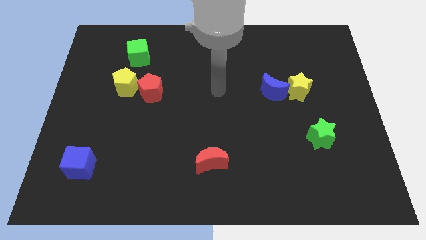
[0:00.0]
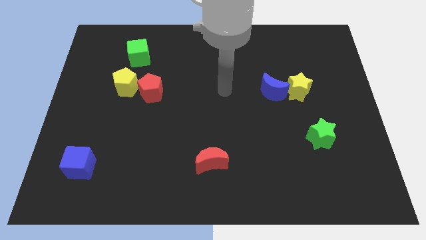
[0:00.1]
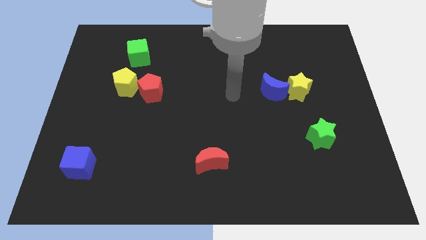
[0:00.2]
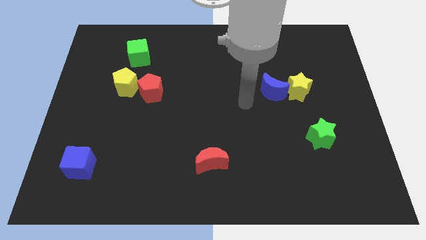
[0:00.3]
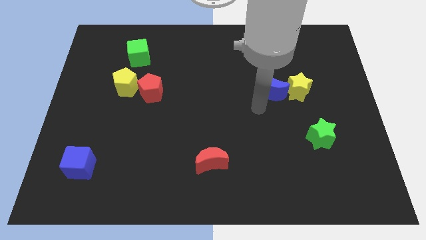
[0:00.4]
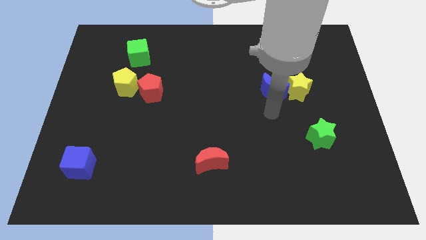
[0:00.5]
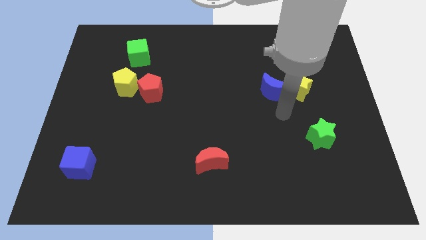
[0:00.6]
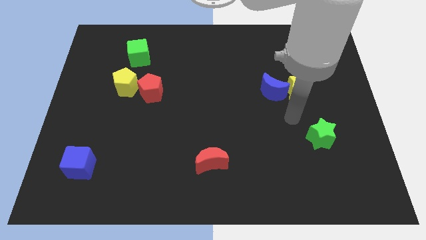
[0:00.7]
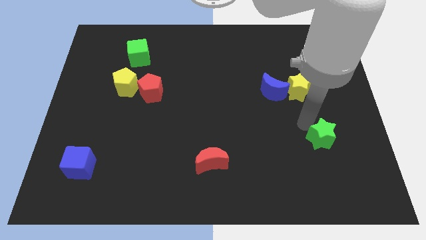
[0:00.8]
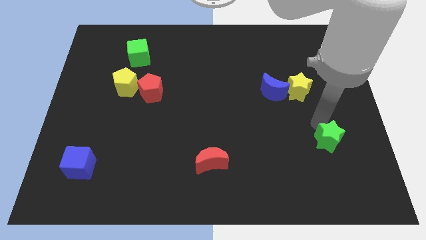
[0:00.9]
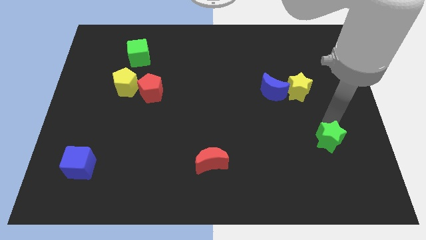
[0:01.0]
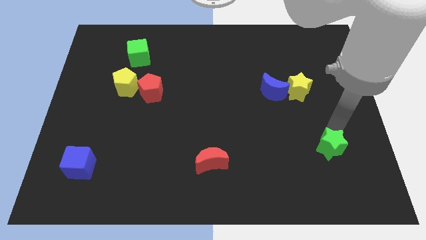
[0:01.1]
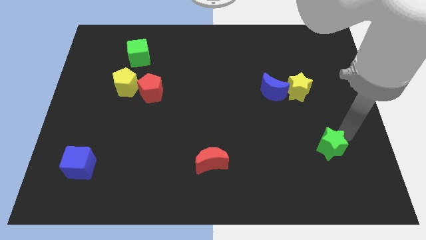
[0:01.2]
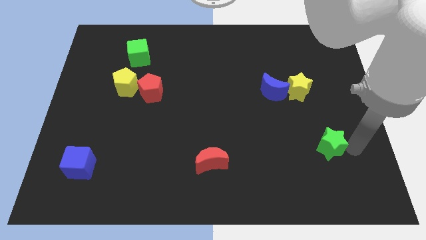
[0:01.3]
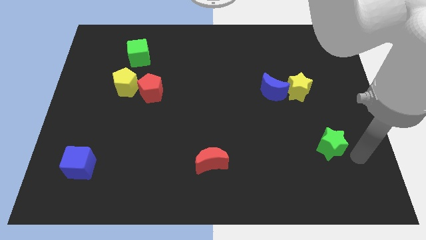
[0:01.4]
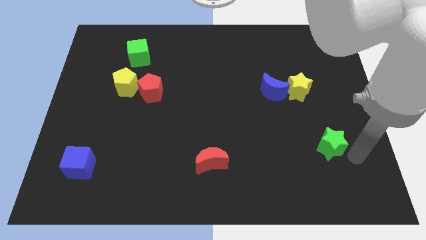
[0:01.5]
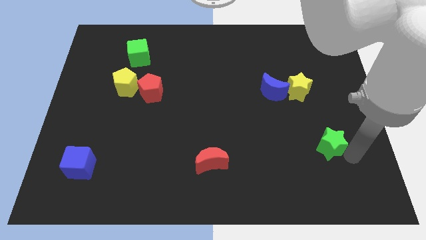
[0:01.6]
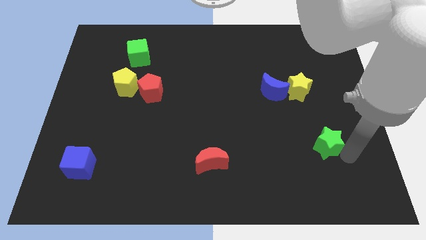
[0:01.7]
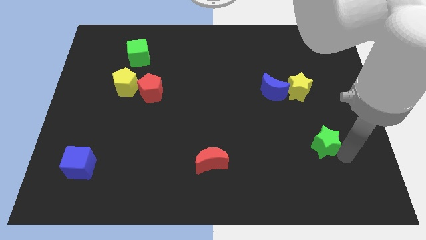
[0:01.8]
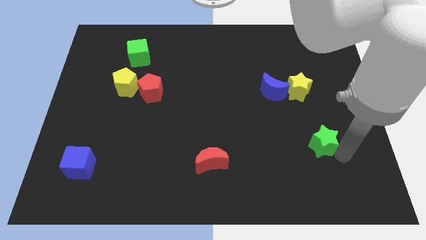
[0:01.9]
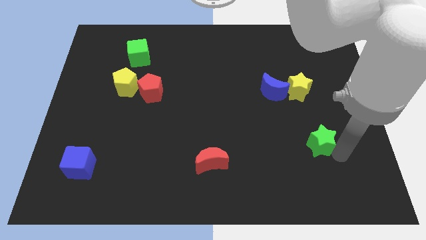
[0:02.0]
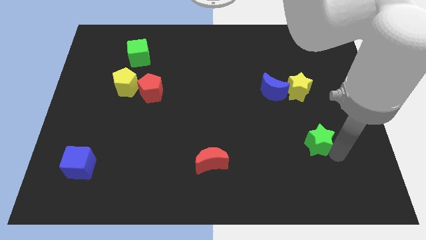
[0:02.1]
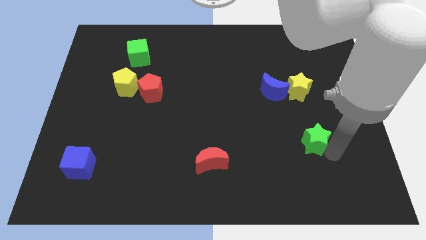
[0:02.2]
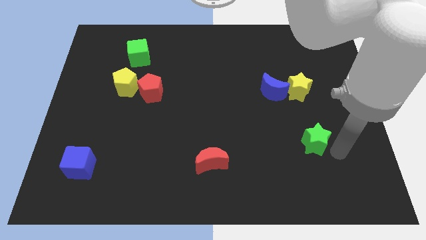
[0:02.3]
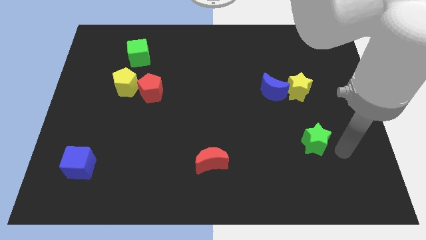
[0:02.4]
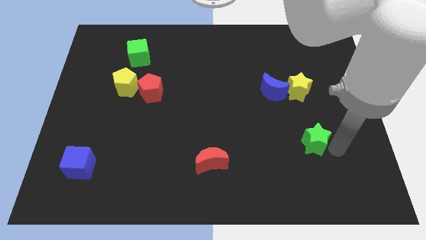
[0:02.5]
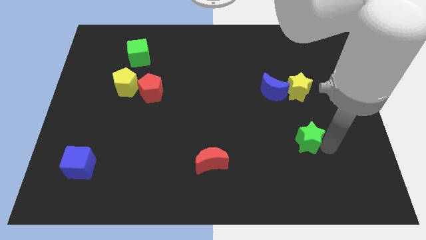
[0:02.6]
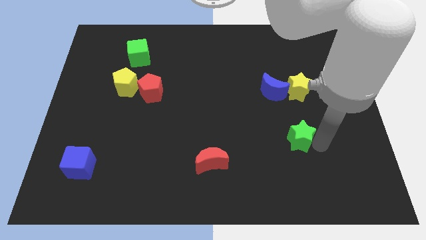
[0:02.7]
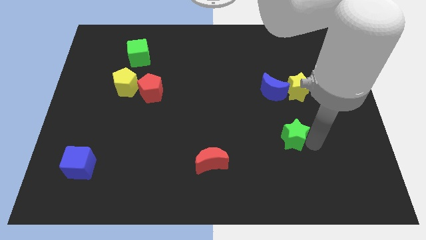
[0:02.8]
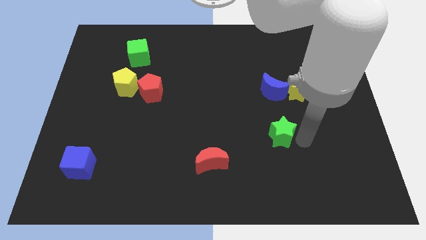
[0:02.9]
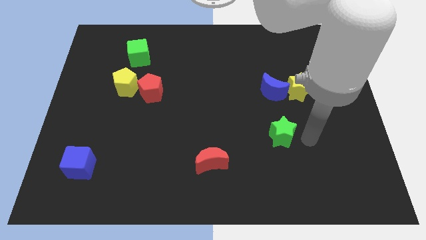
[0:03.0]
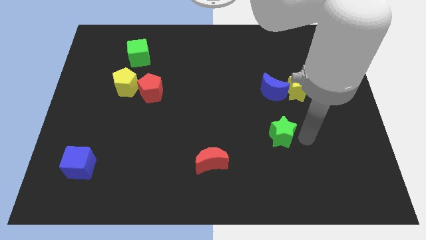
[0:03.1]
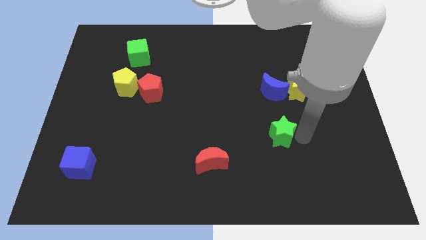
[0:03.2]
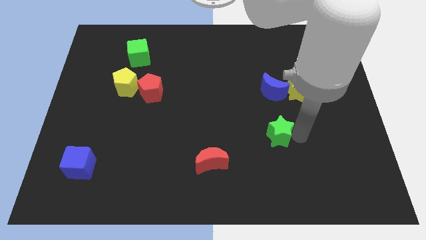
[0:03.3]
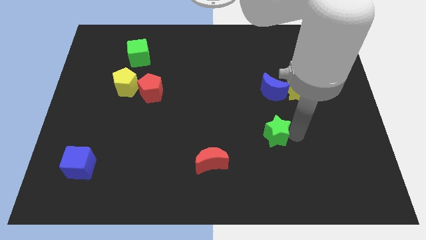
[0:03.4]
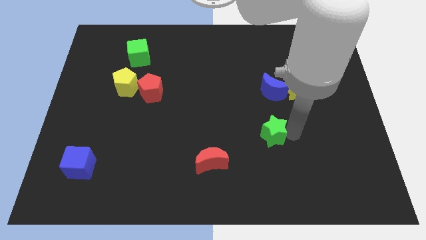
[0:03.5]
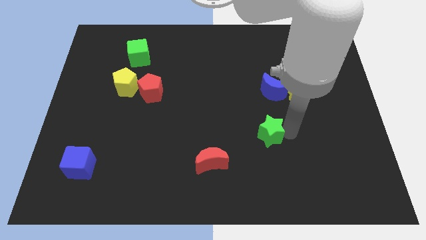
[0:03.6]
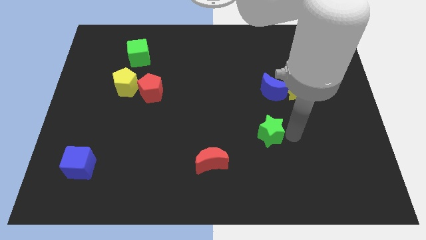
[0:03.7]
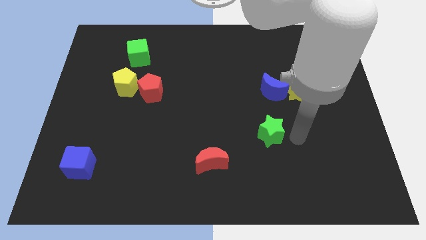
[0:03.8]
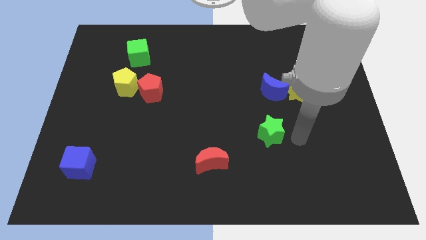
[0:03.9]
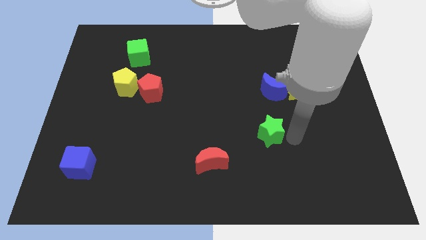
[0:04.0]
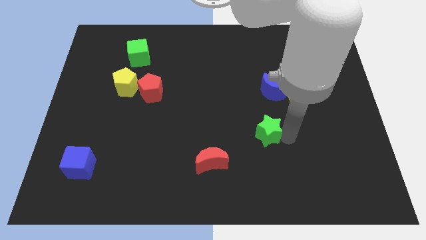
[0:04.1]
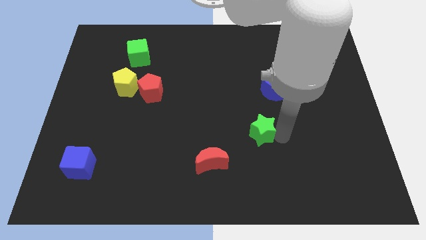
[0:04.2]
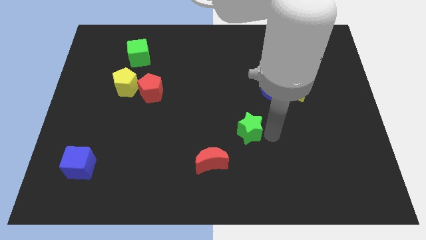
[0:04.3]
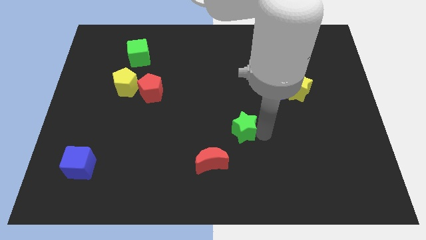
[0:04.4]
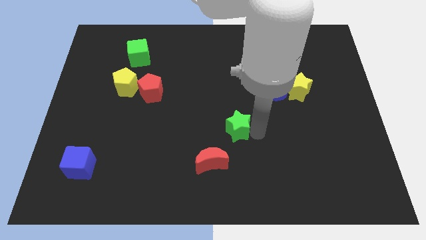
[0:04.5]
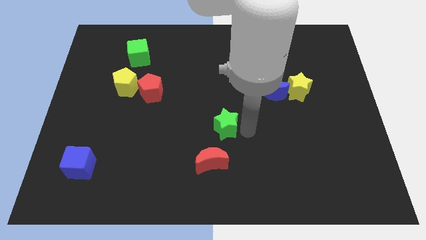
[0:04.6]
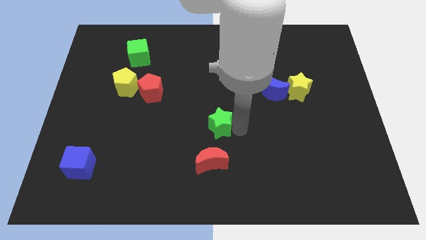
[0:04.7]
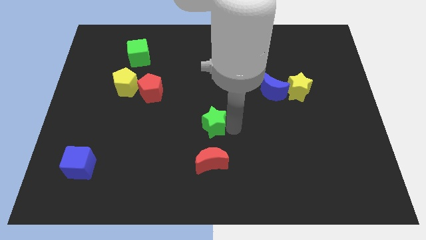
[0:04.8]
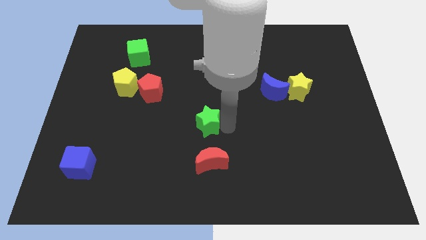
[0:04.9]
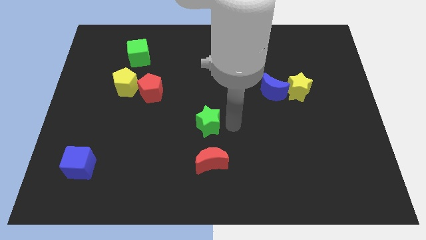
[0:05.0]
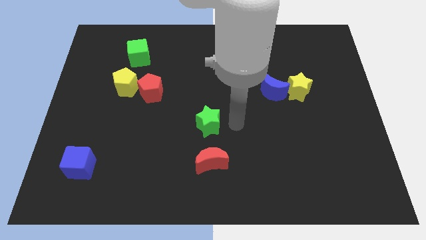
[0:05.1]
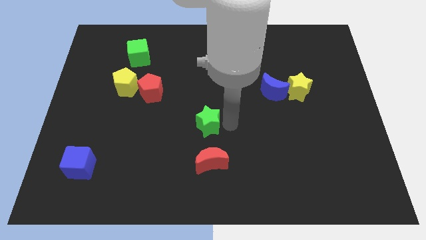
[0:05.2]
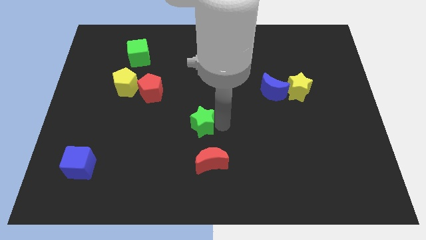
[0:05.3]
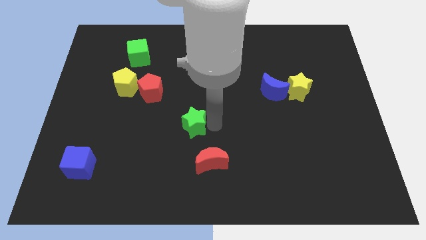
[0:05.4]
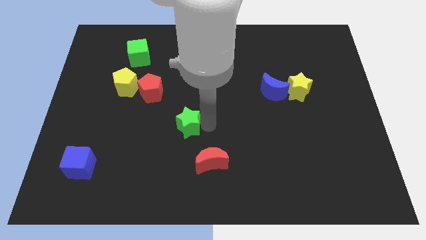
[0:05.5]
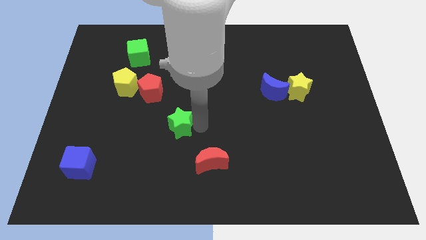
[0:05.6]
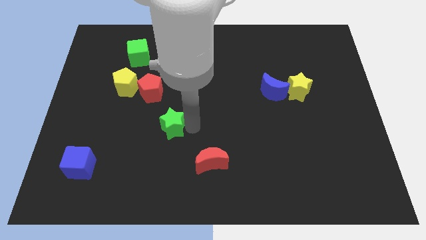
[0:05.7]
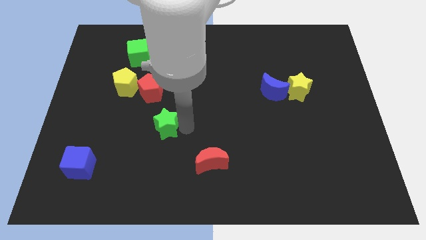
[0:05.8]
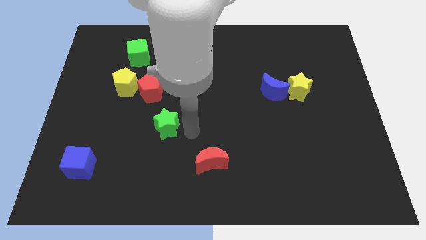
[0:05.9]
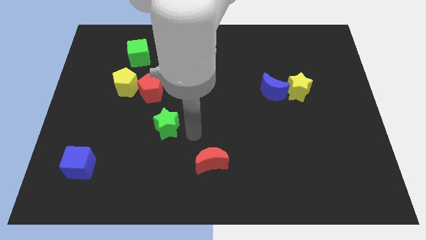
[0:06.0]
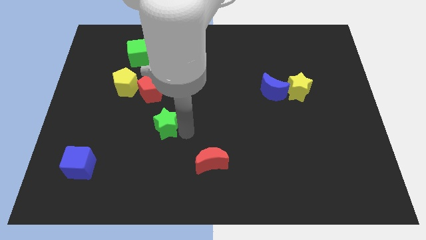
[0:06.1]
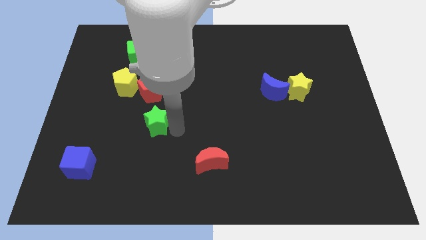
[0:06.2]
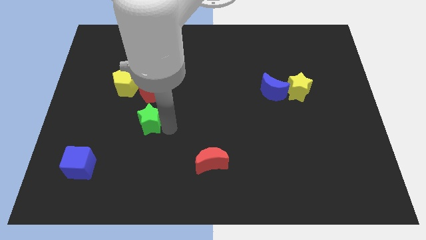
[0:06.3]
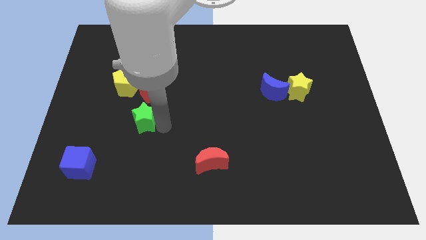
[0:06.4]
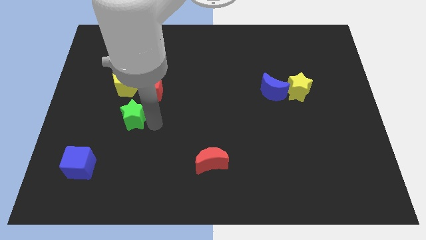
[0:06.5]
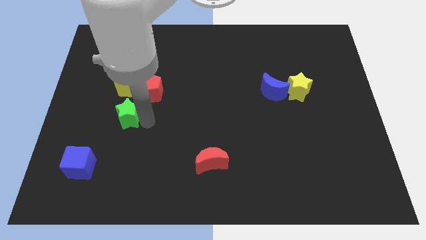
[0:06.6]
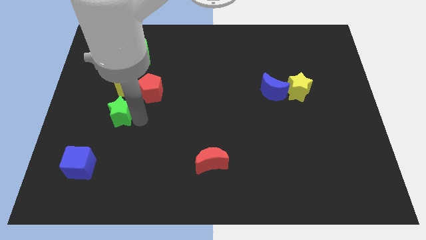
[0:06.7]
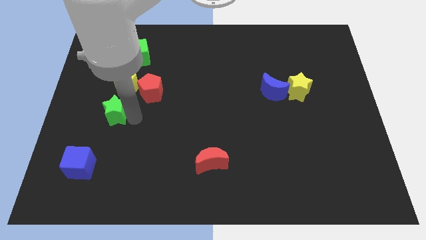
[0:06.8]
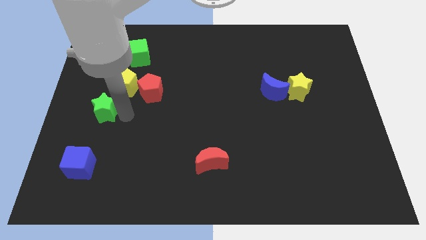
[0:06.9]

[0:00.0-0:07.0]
slide the green star to the left side of the board
